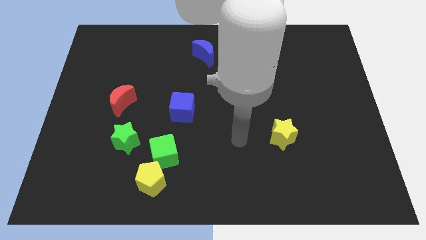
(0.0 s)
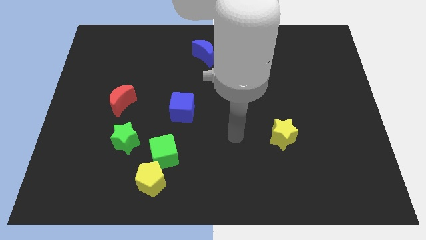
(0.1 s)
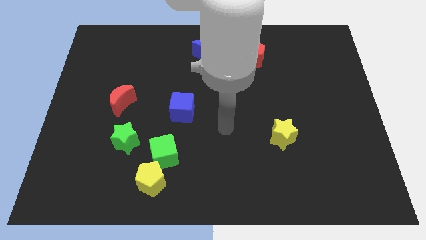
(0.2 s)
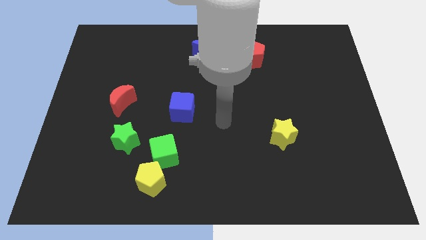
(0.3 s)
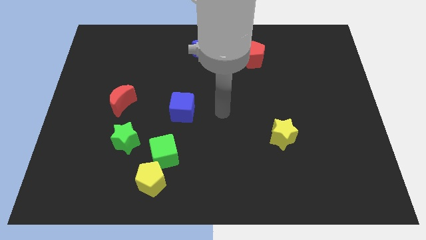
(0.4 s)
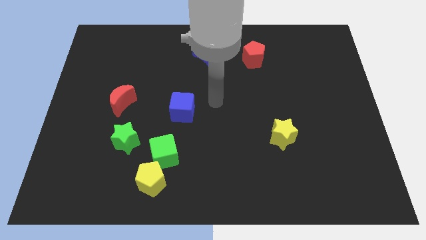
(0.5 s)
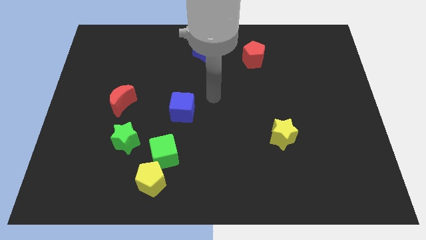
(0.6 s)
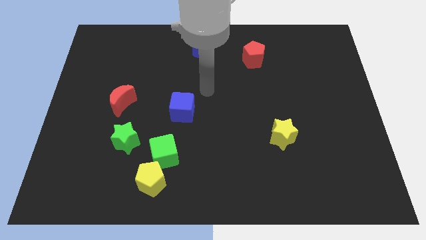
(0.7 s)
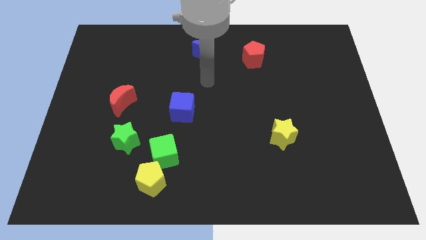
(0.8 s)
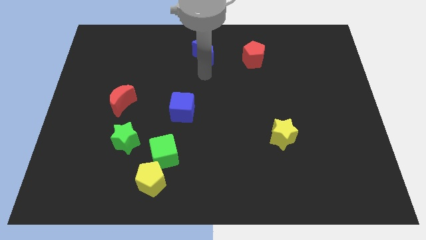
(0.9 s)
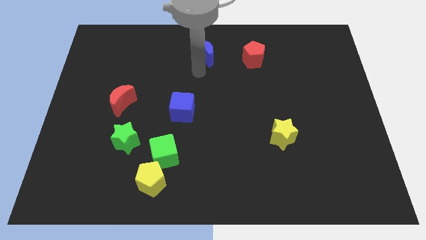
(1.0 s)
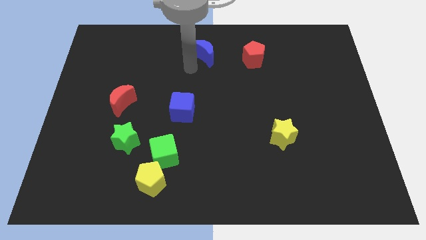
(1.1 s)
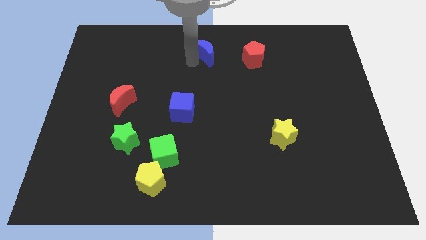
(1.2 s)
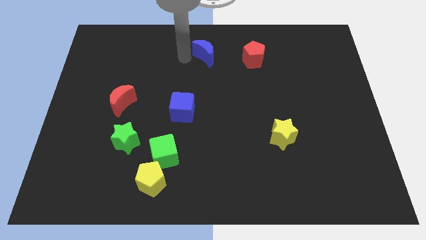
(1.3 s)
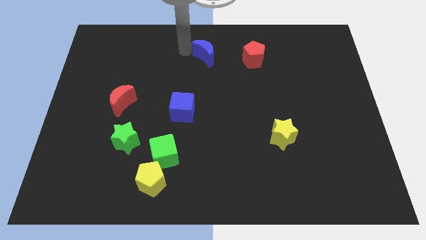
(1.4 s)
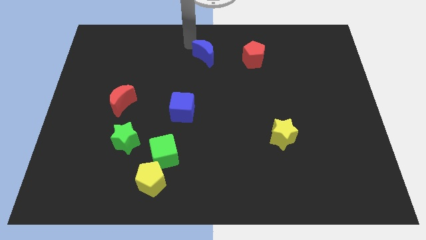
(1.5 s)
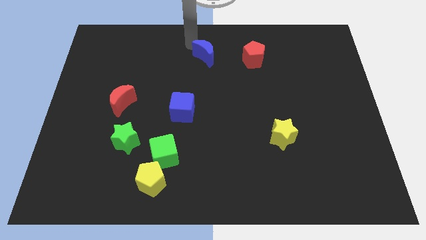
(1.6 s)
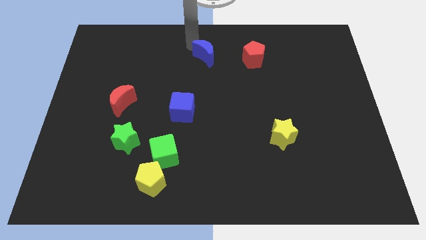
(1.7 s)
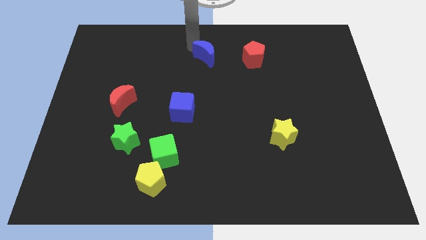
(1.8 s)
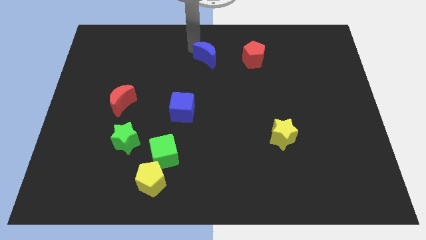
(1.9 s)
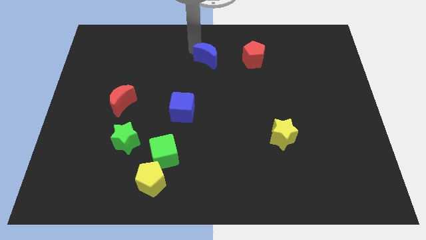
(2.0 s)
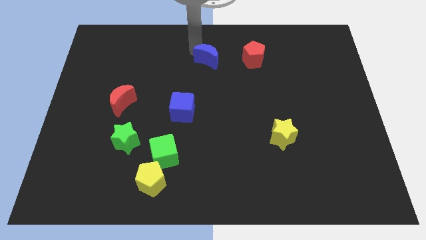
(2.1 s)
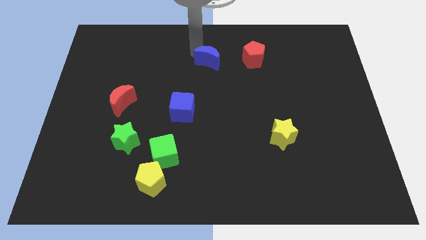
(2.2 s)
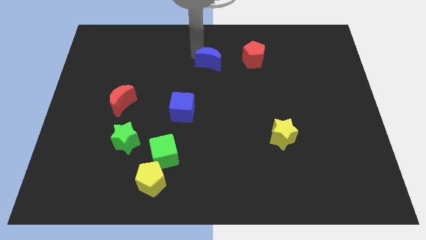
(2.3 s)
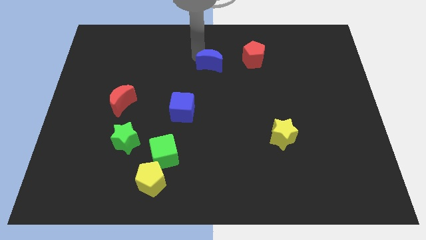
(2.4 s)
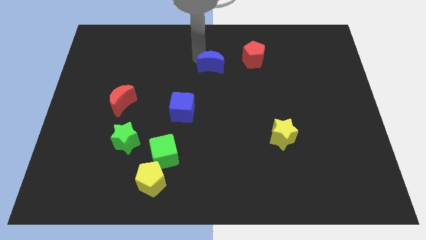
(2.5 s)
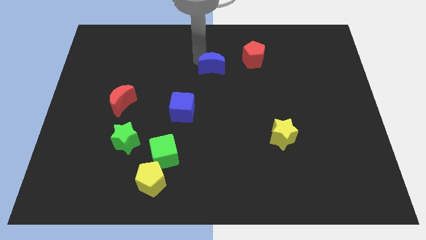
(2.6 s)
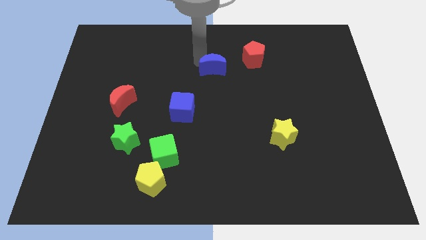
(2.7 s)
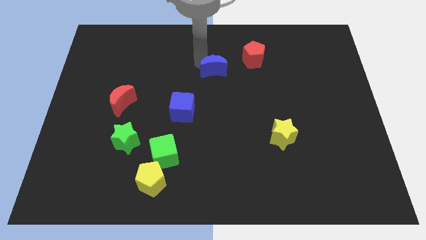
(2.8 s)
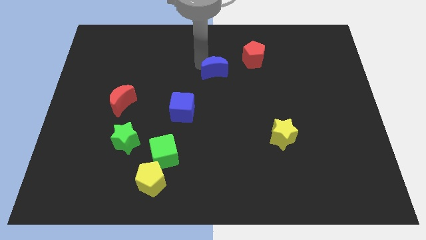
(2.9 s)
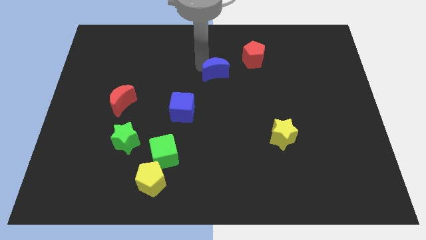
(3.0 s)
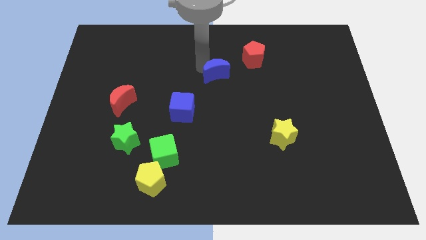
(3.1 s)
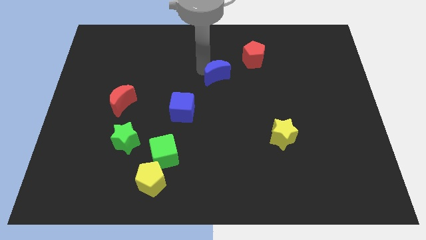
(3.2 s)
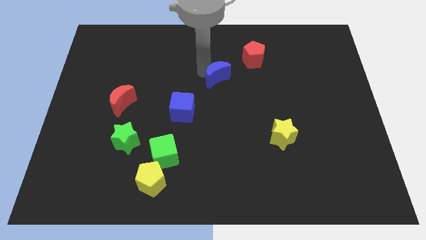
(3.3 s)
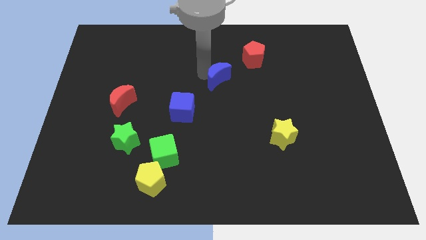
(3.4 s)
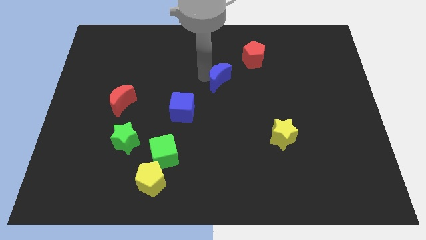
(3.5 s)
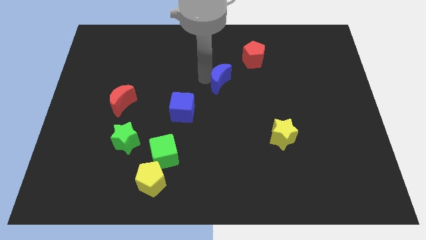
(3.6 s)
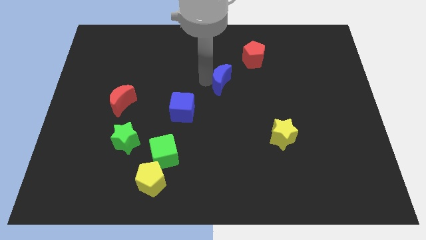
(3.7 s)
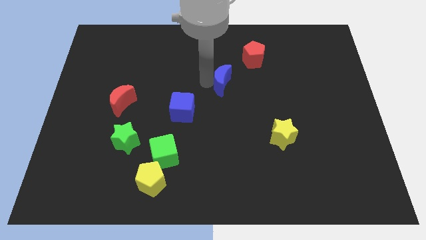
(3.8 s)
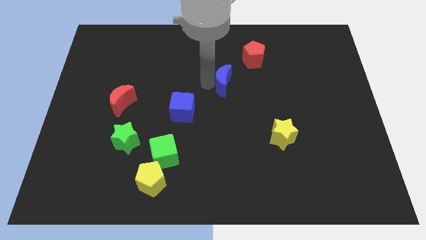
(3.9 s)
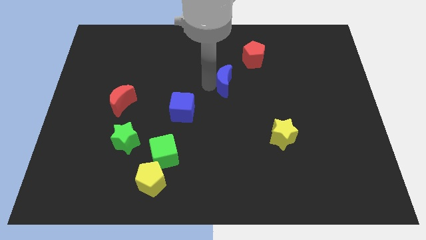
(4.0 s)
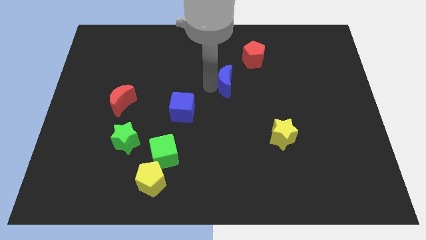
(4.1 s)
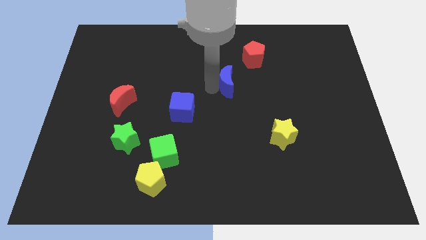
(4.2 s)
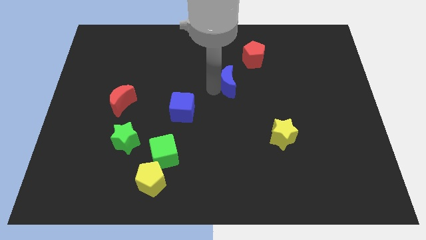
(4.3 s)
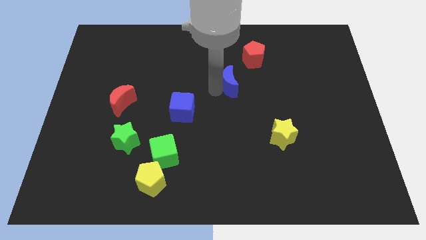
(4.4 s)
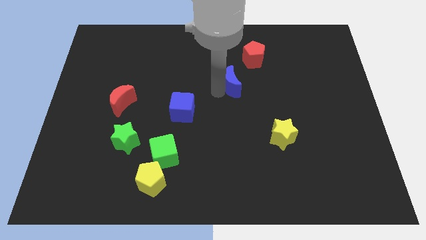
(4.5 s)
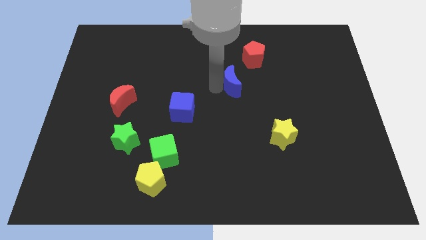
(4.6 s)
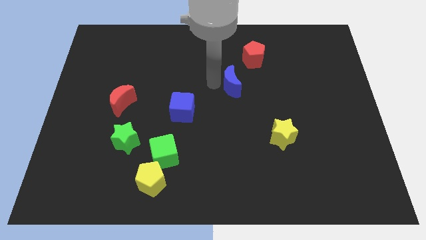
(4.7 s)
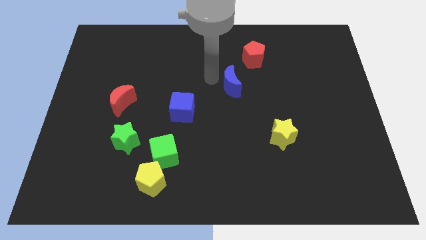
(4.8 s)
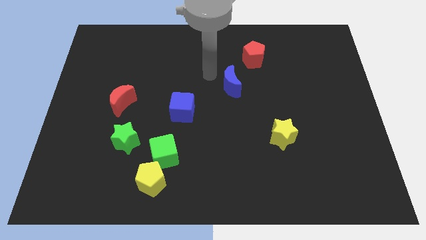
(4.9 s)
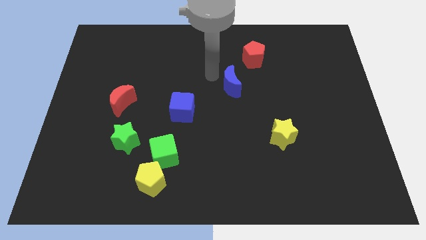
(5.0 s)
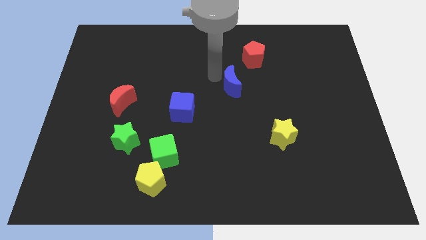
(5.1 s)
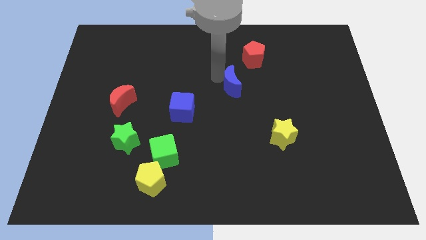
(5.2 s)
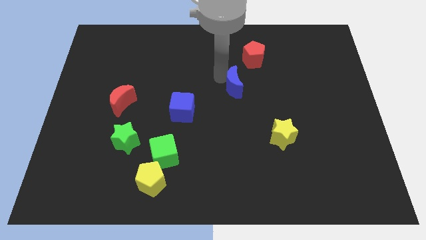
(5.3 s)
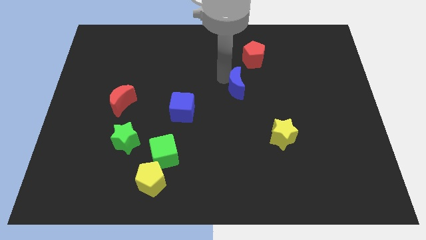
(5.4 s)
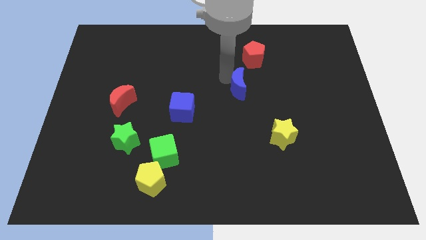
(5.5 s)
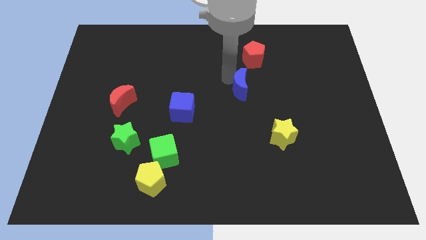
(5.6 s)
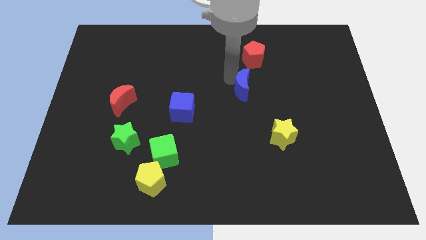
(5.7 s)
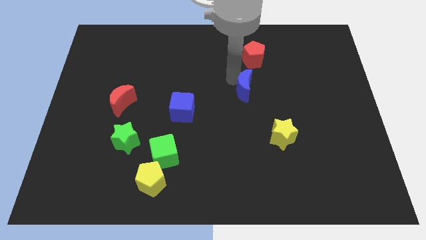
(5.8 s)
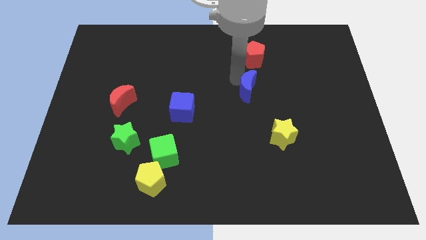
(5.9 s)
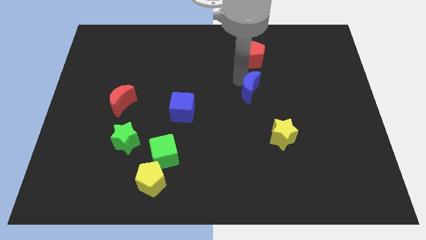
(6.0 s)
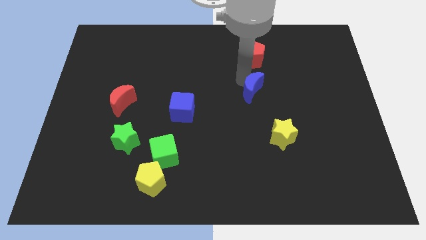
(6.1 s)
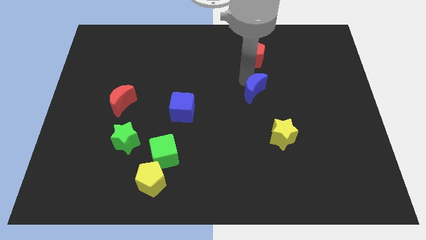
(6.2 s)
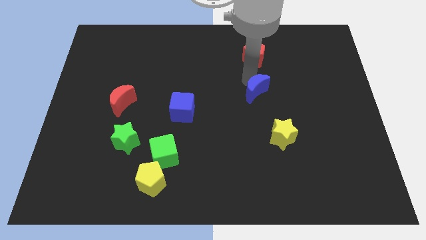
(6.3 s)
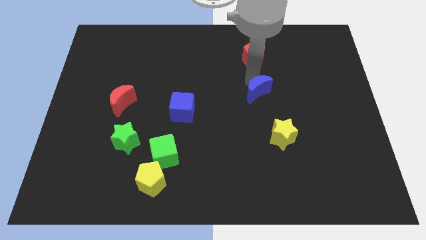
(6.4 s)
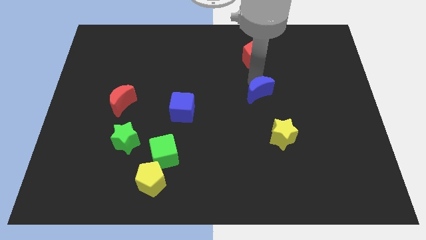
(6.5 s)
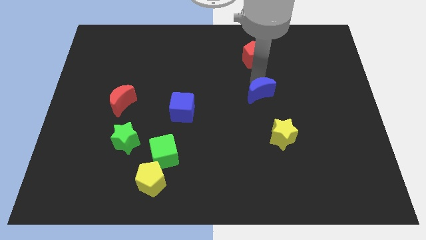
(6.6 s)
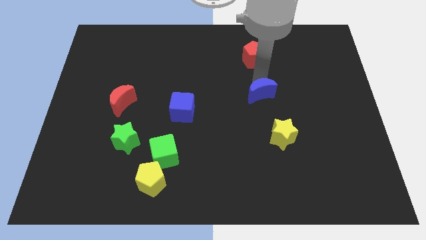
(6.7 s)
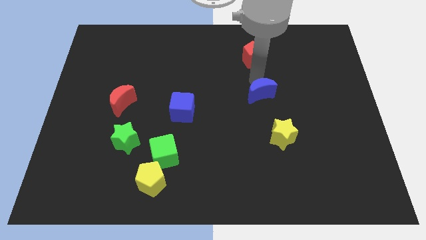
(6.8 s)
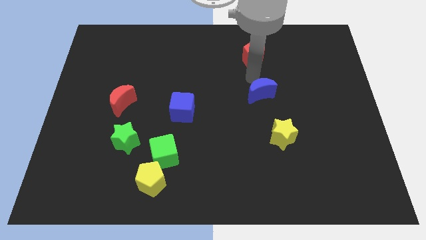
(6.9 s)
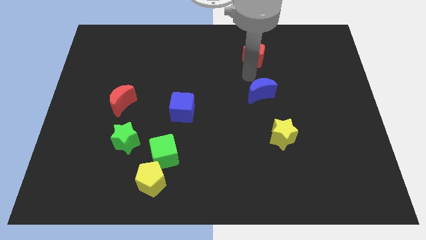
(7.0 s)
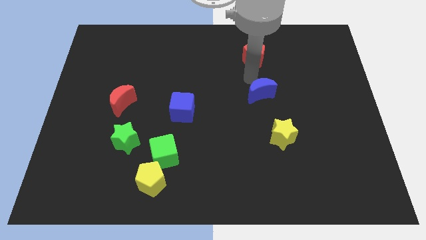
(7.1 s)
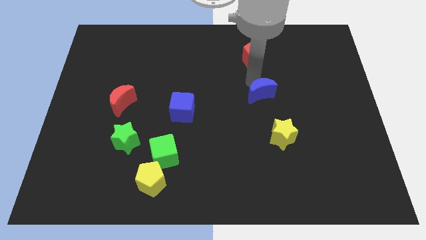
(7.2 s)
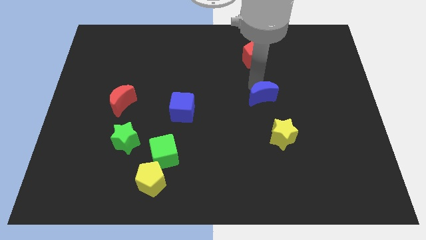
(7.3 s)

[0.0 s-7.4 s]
slide the blue moon downwards and then right

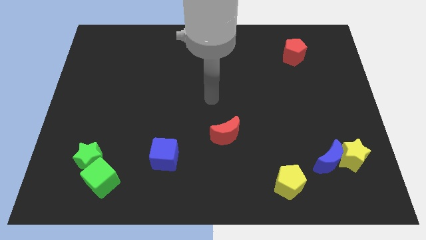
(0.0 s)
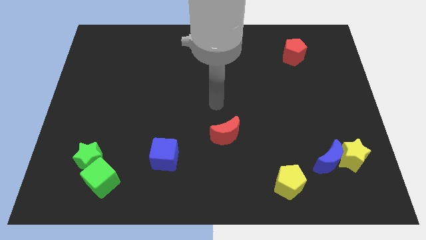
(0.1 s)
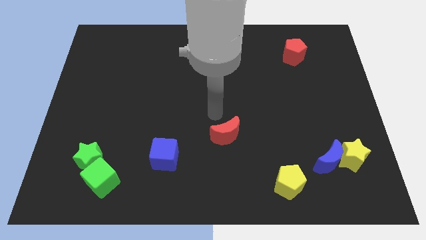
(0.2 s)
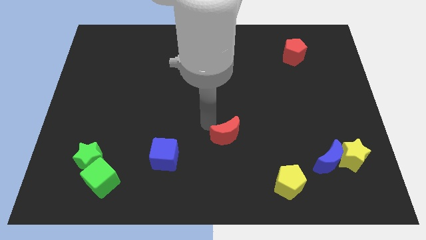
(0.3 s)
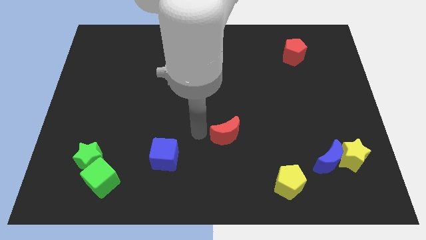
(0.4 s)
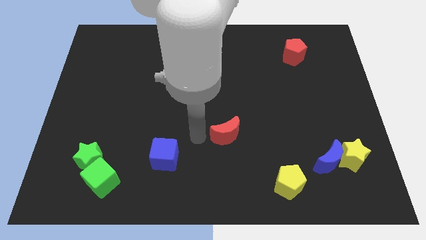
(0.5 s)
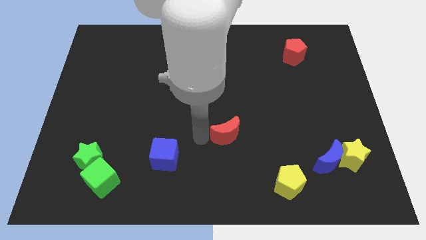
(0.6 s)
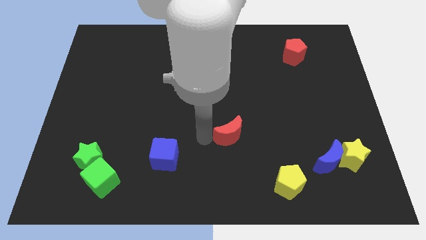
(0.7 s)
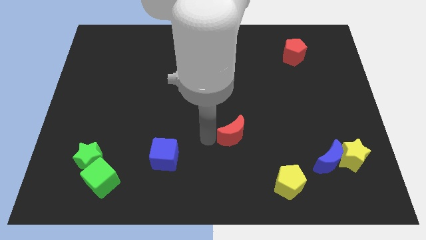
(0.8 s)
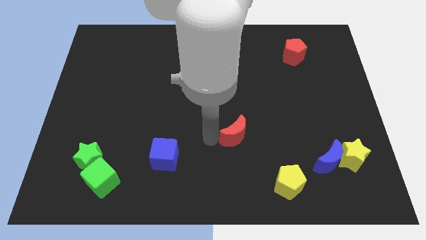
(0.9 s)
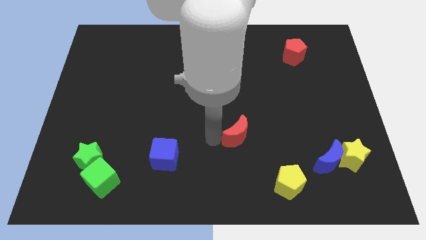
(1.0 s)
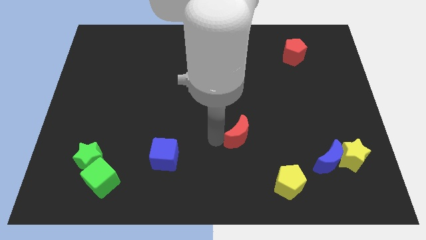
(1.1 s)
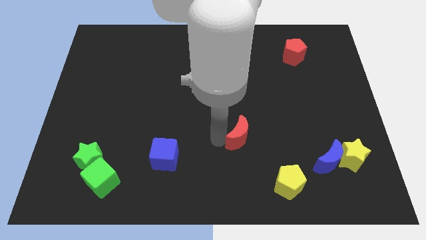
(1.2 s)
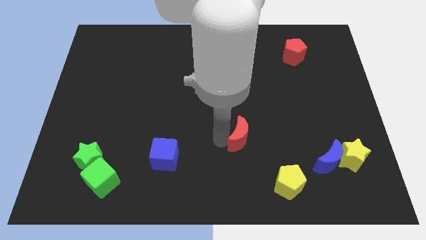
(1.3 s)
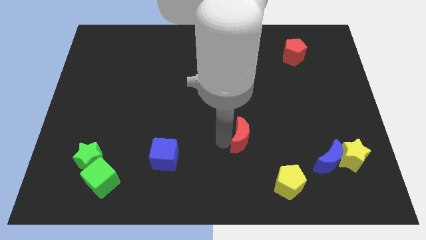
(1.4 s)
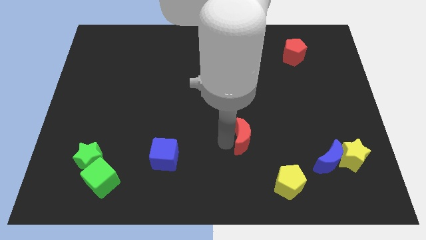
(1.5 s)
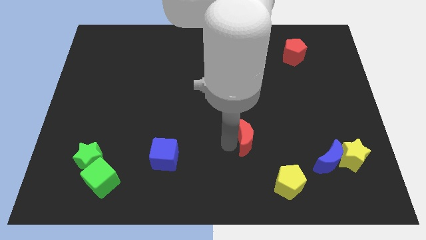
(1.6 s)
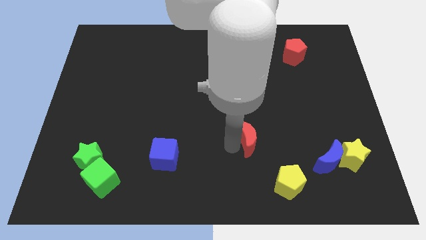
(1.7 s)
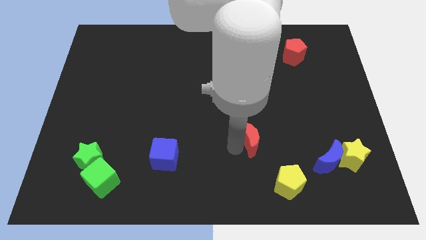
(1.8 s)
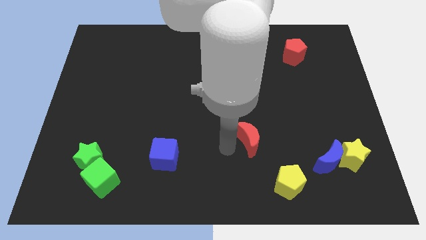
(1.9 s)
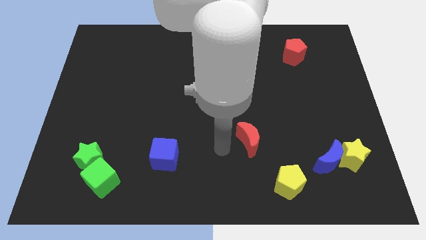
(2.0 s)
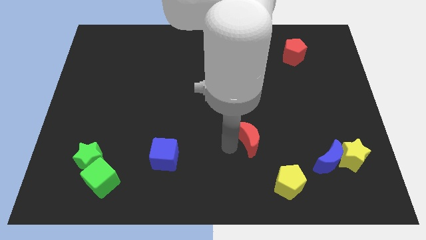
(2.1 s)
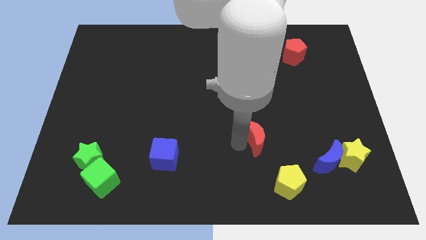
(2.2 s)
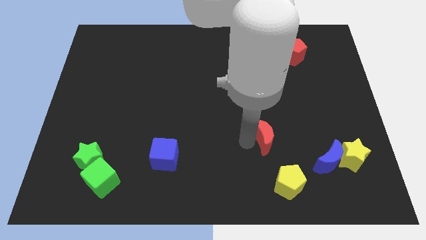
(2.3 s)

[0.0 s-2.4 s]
slightly move the red moon to the right
